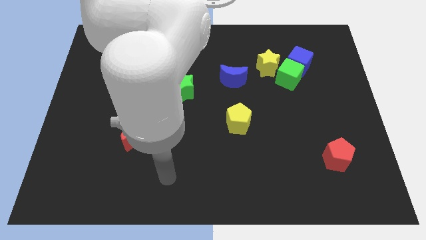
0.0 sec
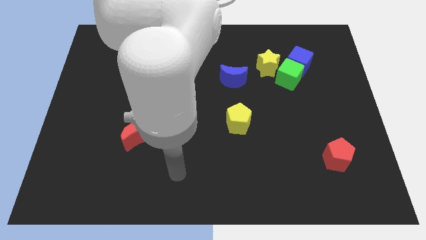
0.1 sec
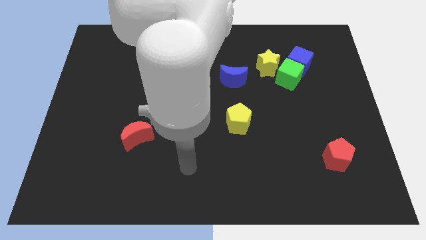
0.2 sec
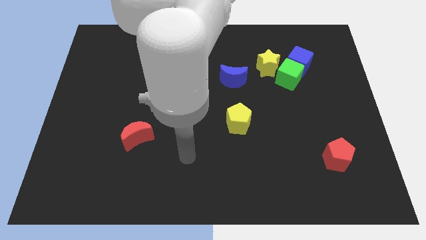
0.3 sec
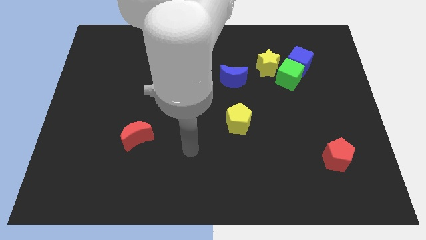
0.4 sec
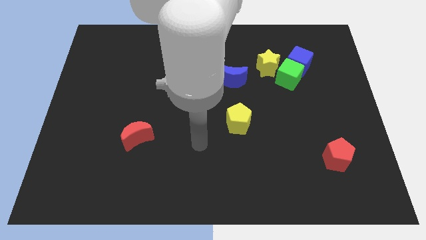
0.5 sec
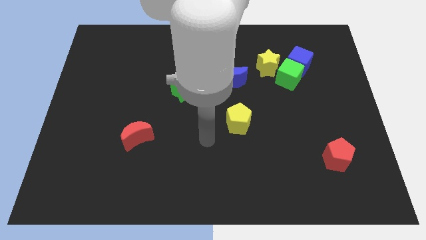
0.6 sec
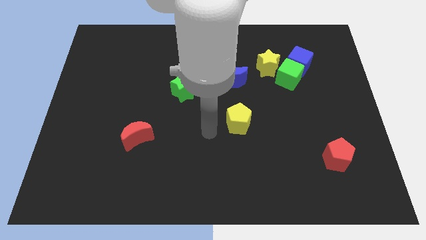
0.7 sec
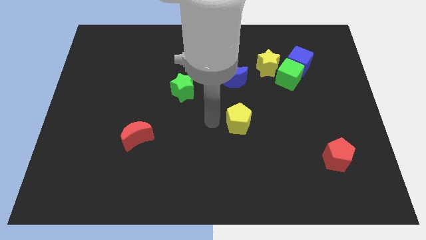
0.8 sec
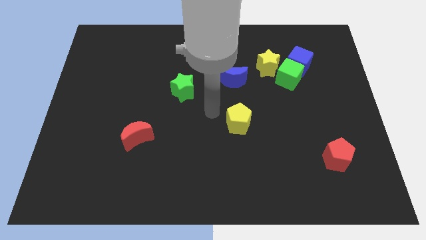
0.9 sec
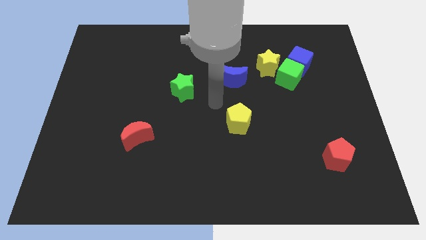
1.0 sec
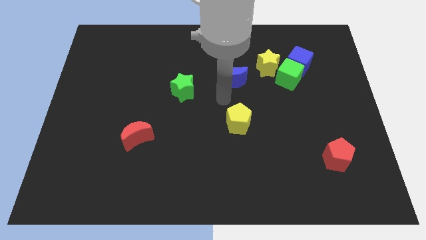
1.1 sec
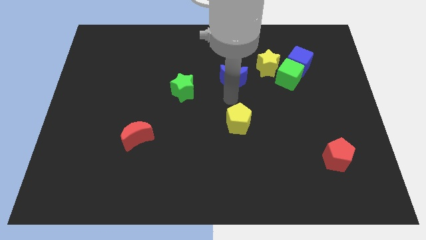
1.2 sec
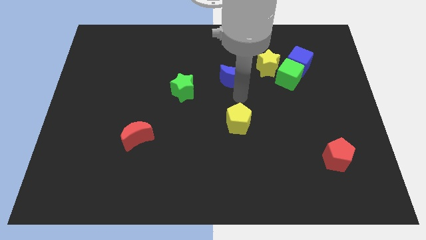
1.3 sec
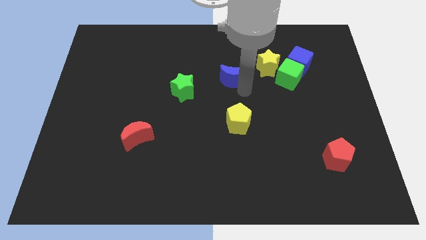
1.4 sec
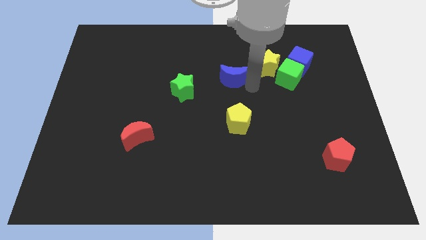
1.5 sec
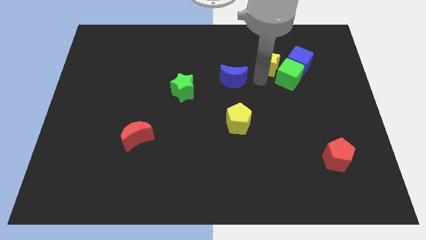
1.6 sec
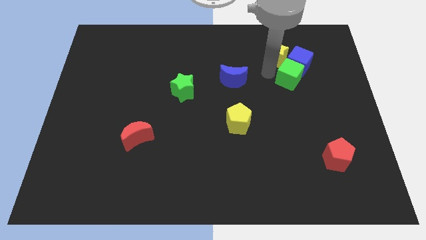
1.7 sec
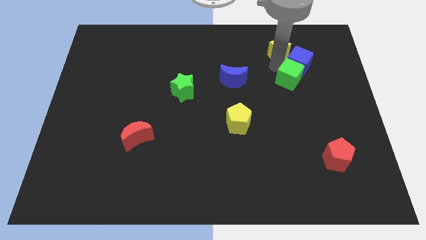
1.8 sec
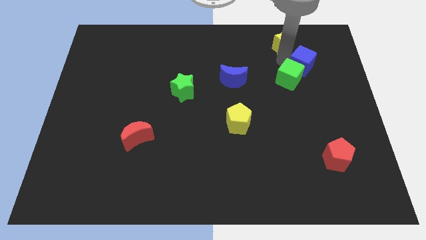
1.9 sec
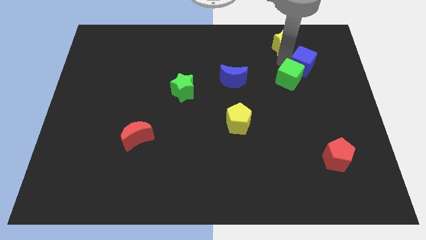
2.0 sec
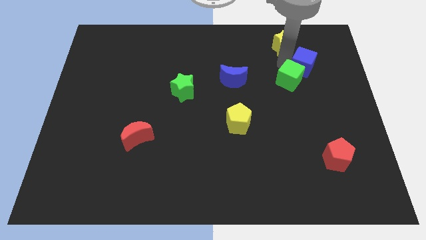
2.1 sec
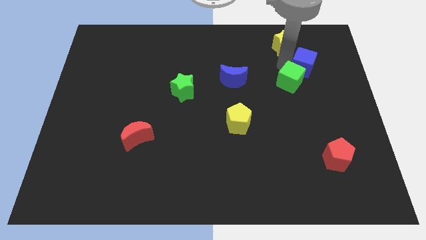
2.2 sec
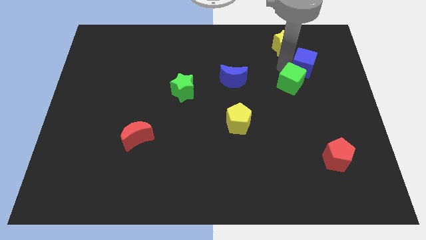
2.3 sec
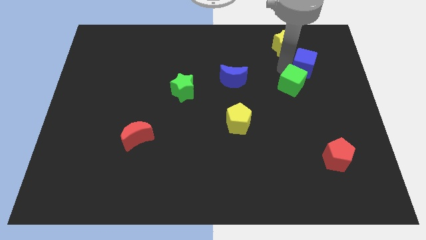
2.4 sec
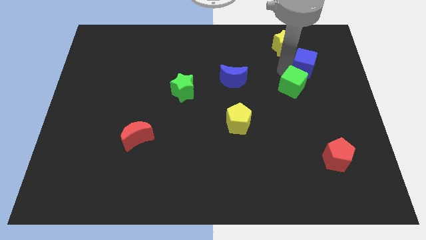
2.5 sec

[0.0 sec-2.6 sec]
separate the green cube from the blue cube and yellow star

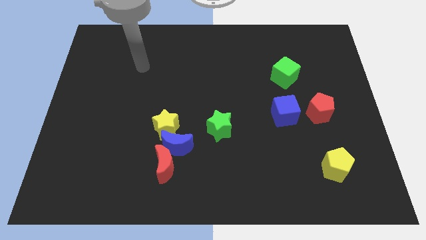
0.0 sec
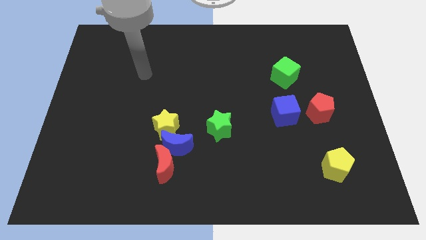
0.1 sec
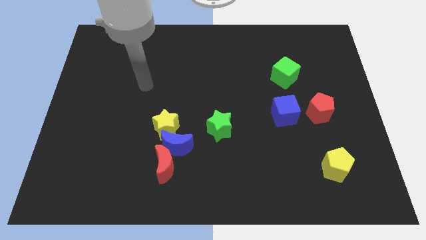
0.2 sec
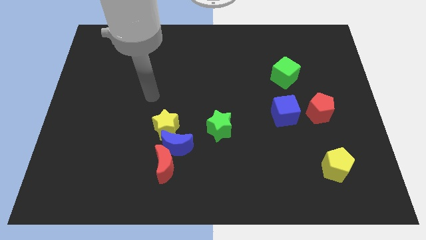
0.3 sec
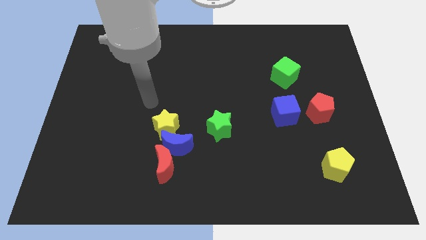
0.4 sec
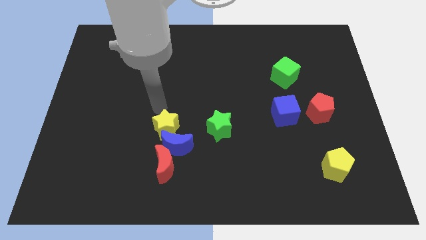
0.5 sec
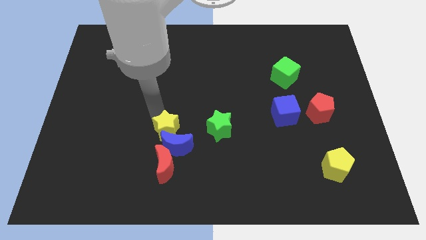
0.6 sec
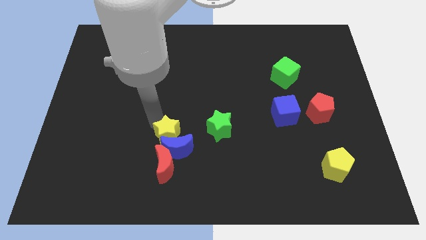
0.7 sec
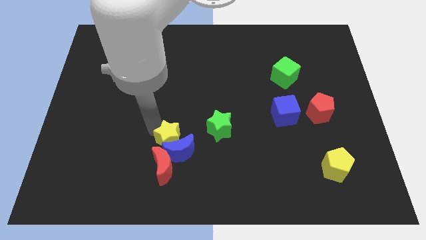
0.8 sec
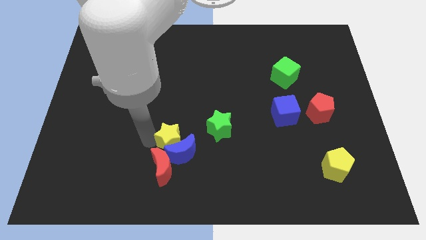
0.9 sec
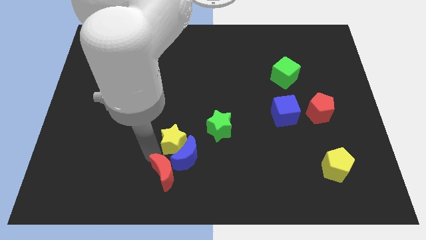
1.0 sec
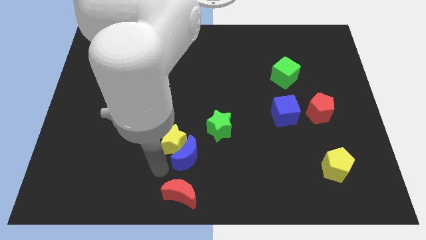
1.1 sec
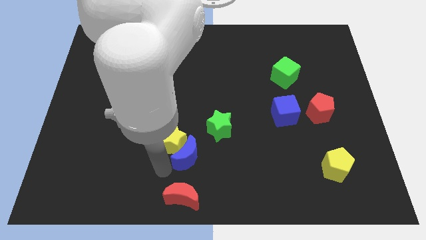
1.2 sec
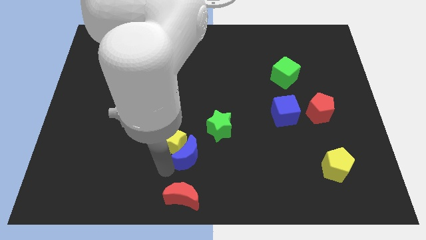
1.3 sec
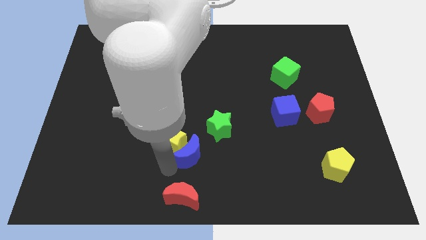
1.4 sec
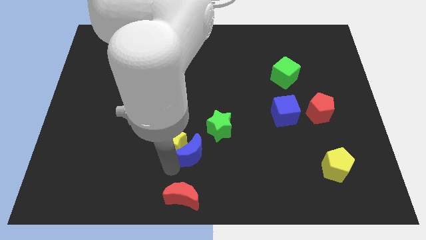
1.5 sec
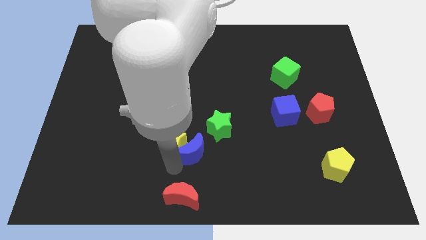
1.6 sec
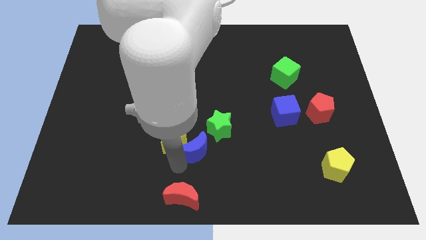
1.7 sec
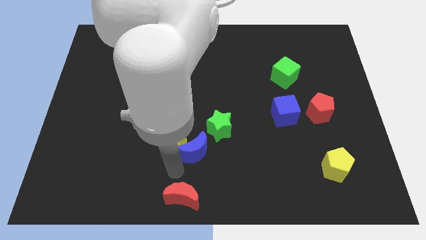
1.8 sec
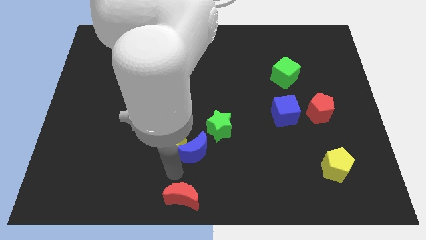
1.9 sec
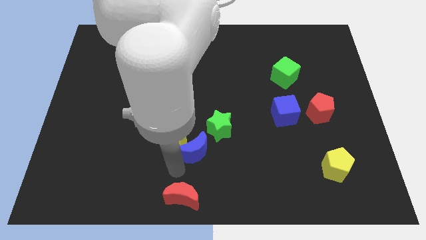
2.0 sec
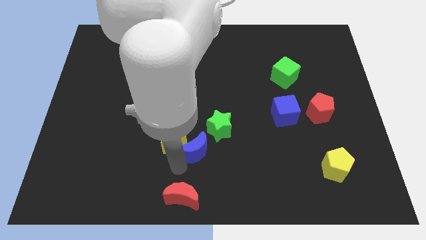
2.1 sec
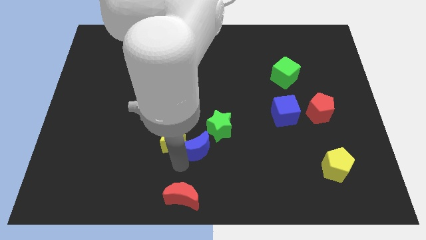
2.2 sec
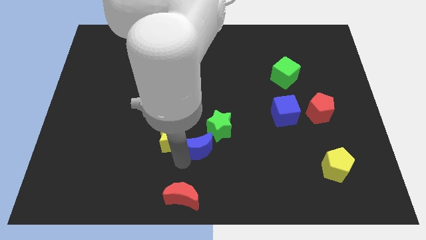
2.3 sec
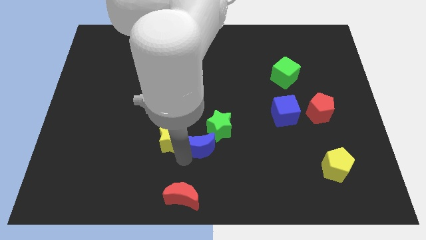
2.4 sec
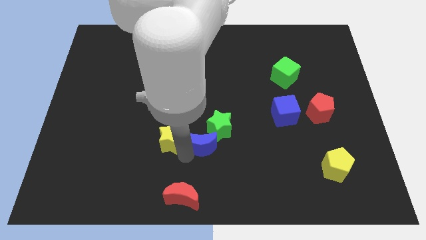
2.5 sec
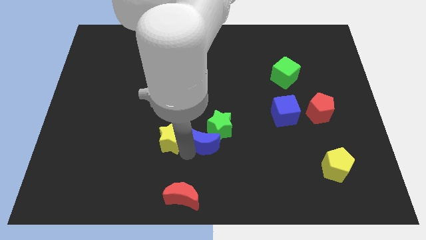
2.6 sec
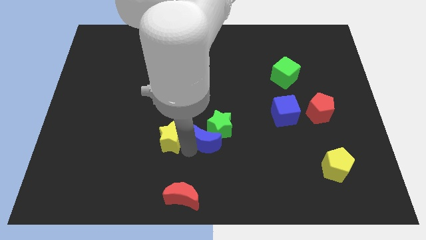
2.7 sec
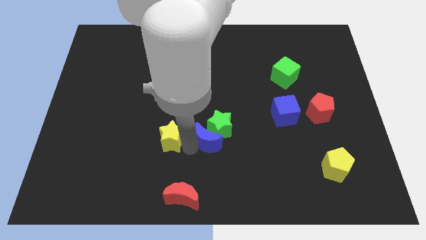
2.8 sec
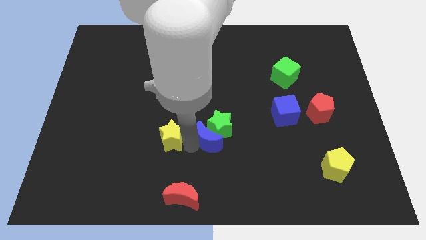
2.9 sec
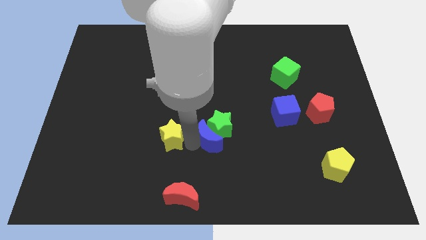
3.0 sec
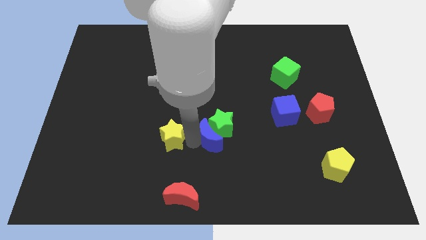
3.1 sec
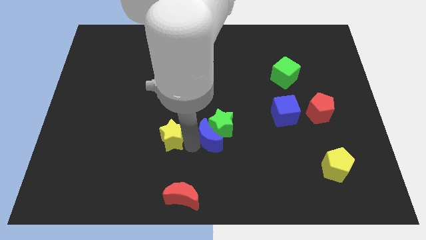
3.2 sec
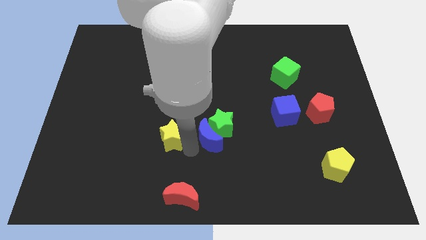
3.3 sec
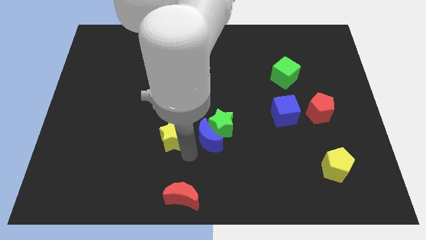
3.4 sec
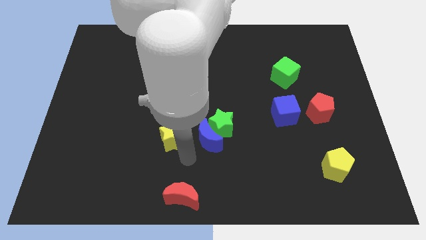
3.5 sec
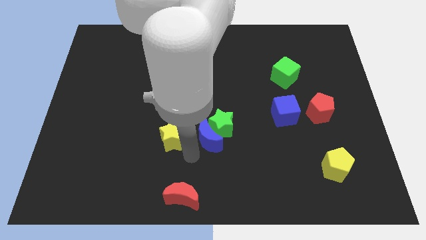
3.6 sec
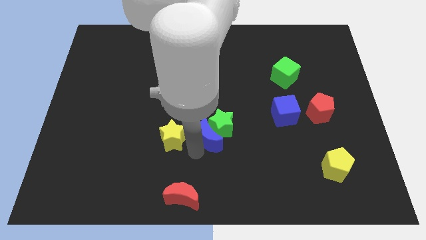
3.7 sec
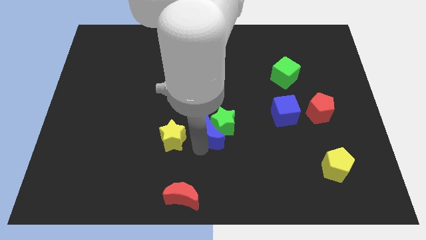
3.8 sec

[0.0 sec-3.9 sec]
move the blue moon away from the red moon and yellow star

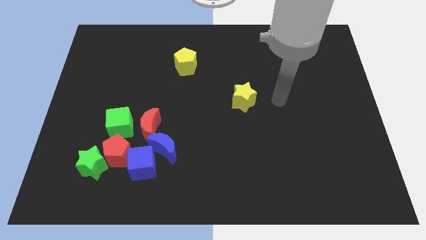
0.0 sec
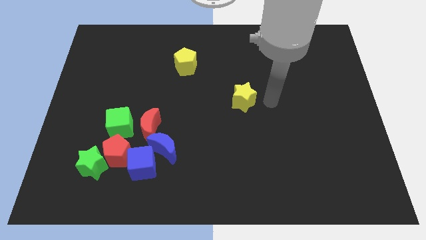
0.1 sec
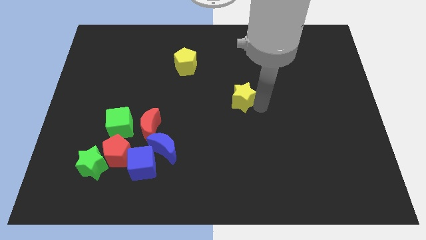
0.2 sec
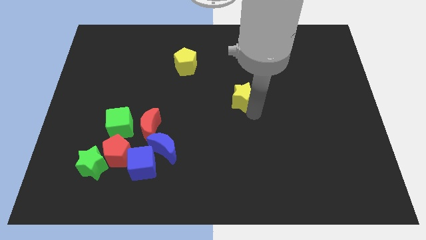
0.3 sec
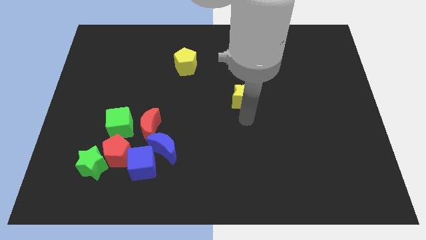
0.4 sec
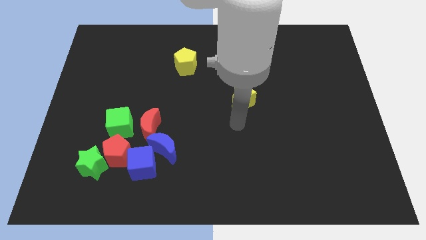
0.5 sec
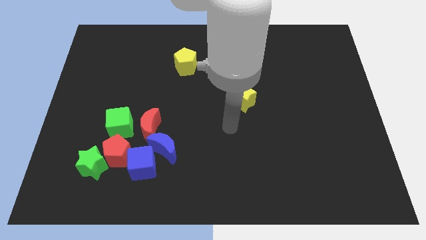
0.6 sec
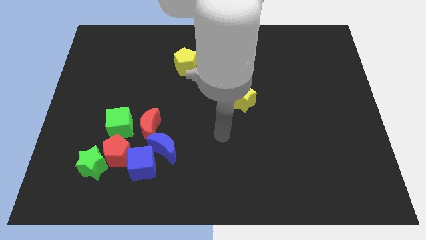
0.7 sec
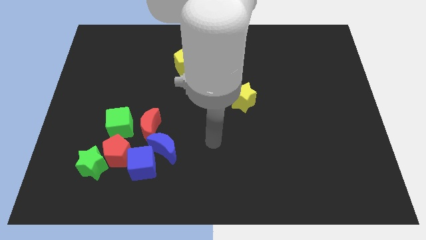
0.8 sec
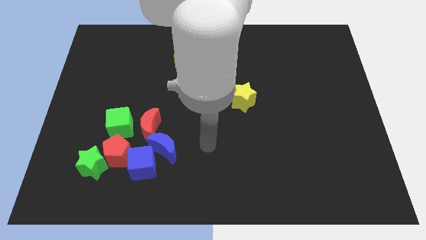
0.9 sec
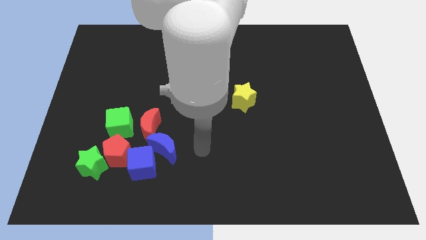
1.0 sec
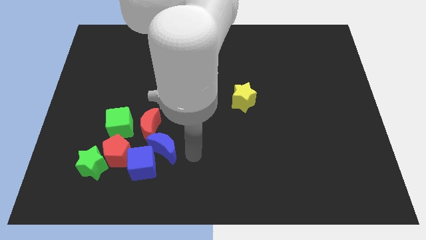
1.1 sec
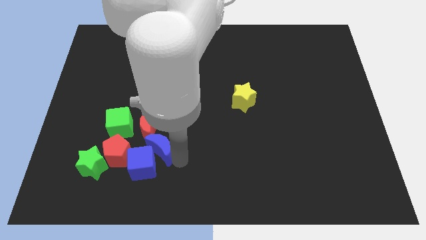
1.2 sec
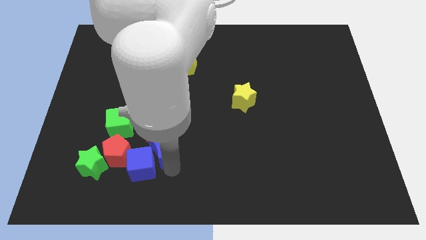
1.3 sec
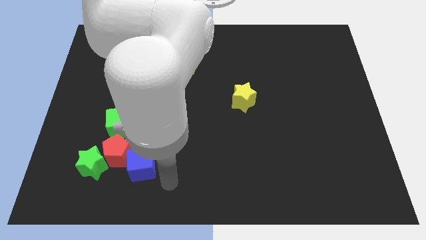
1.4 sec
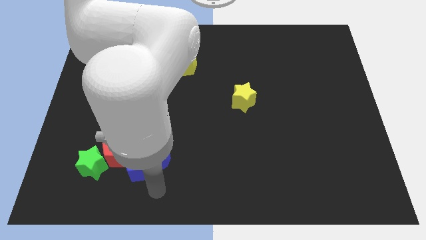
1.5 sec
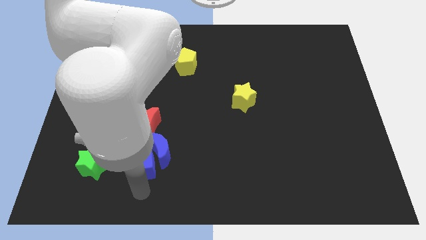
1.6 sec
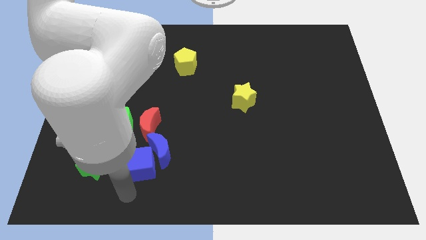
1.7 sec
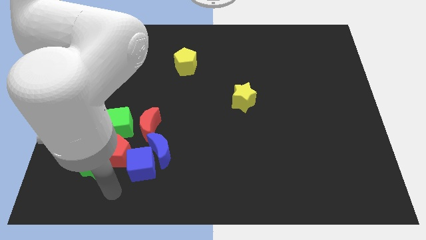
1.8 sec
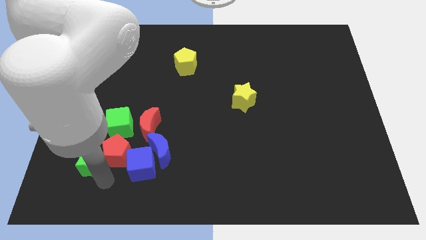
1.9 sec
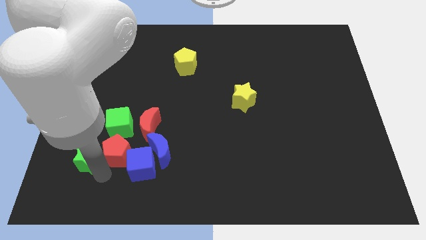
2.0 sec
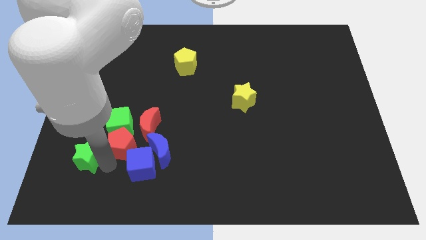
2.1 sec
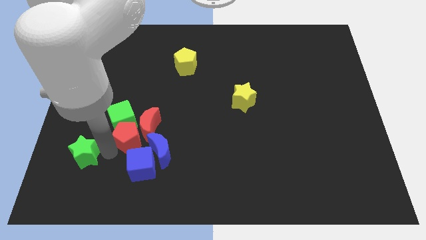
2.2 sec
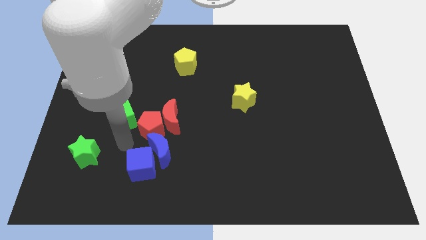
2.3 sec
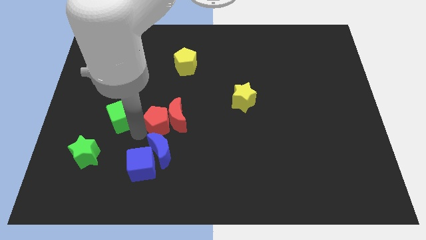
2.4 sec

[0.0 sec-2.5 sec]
move the green cube away from the red moon and red pentagon

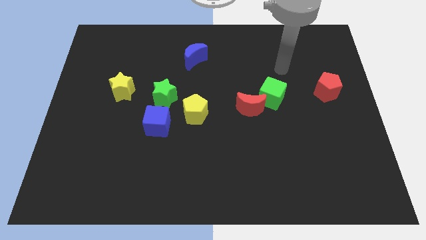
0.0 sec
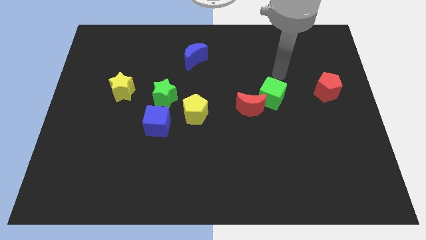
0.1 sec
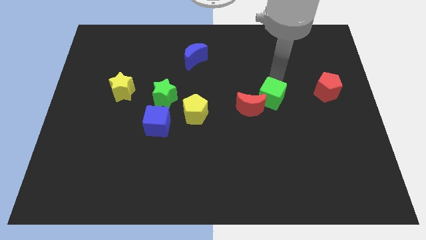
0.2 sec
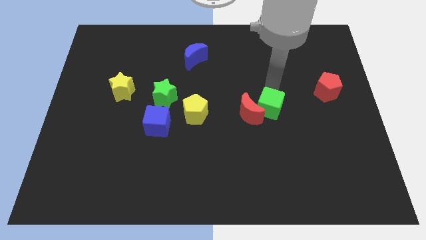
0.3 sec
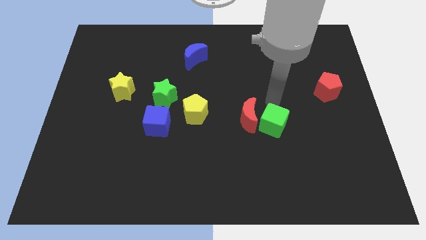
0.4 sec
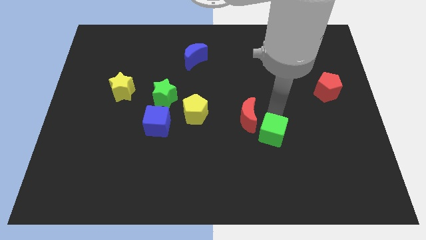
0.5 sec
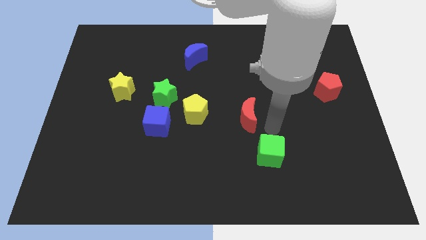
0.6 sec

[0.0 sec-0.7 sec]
pull the red moon apart from the green cube
